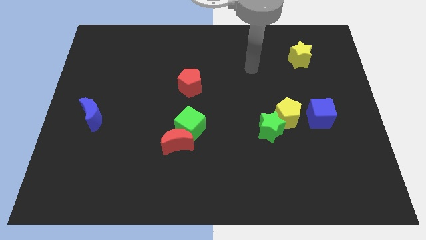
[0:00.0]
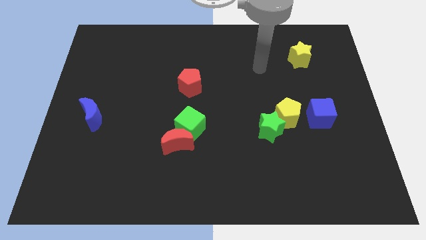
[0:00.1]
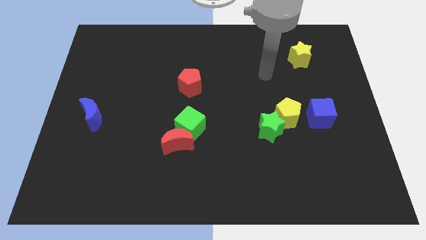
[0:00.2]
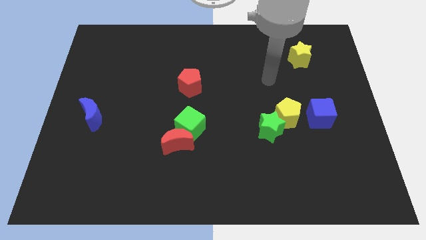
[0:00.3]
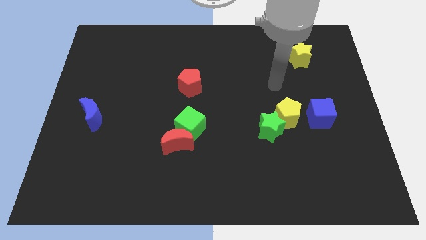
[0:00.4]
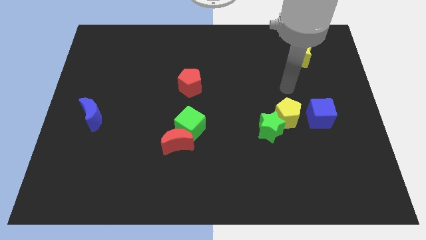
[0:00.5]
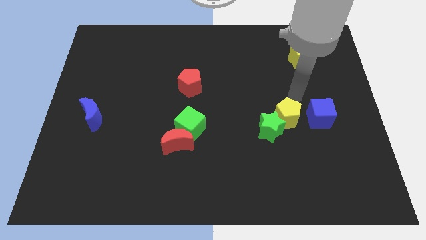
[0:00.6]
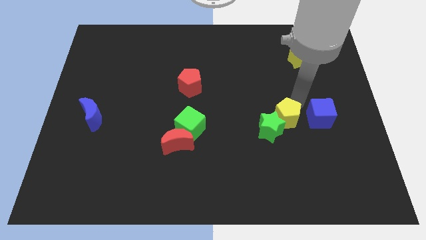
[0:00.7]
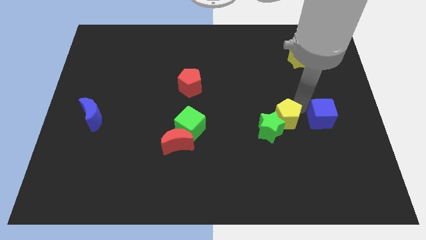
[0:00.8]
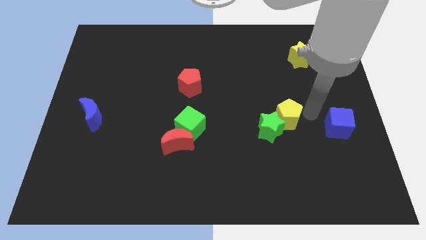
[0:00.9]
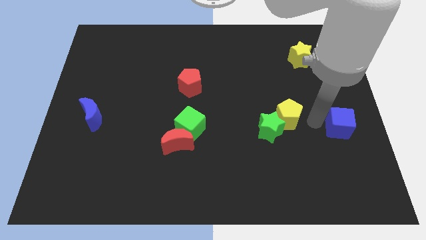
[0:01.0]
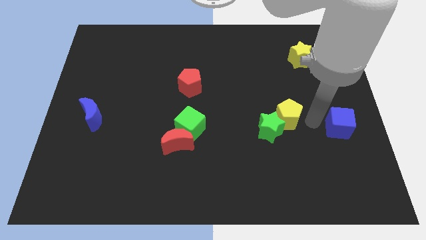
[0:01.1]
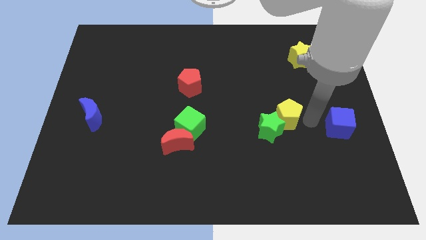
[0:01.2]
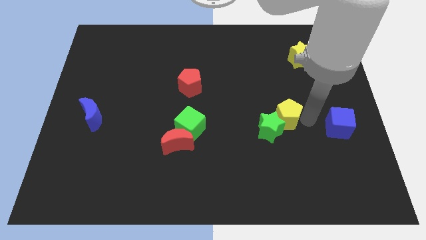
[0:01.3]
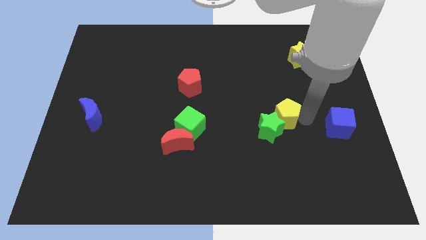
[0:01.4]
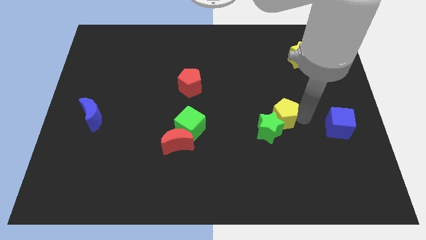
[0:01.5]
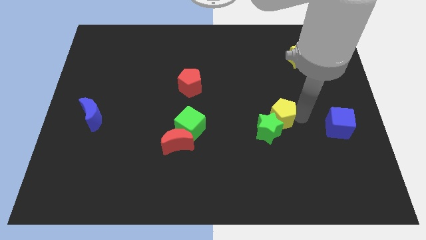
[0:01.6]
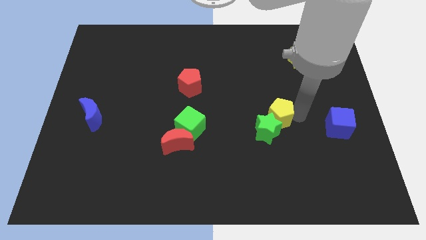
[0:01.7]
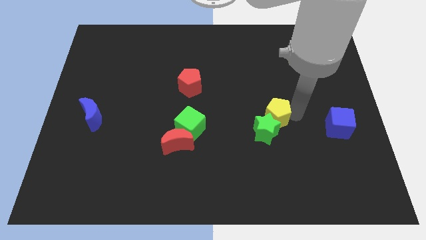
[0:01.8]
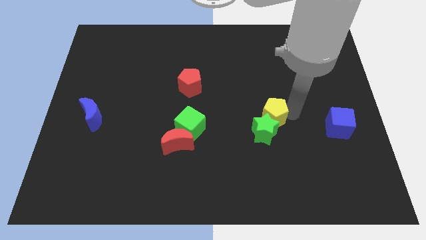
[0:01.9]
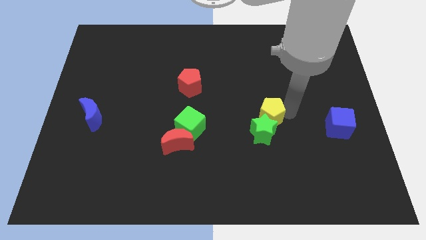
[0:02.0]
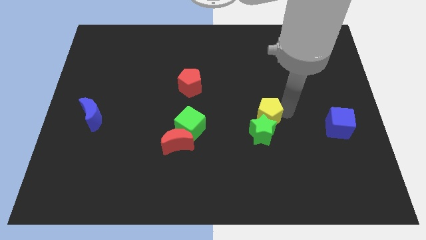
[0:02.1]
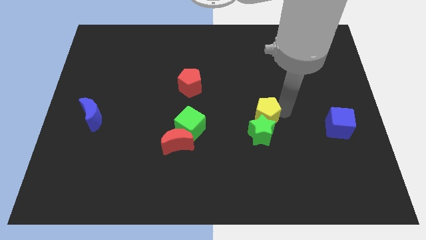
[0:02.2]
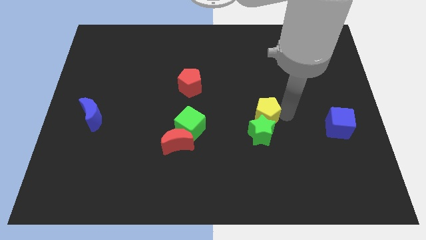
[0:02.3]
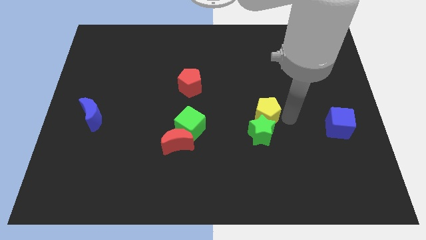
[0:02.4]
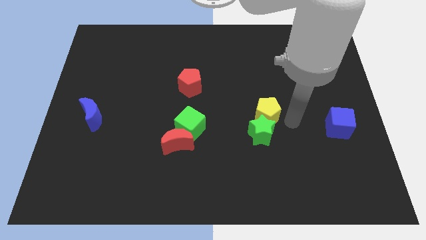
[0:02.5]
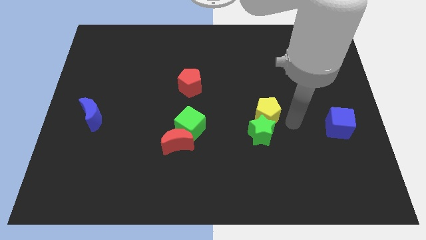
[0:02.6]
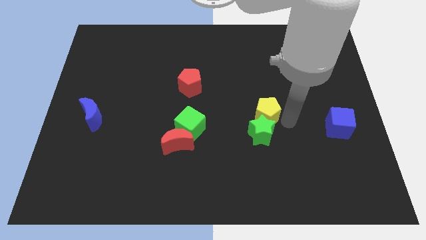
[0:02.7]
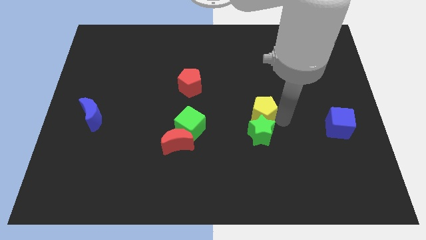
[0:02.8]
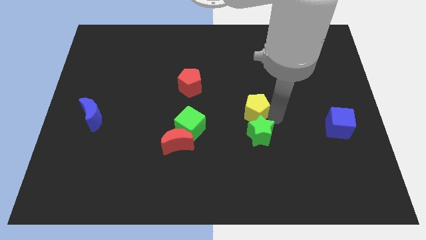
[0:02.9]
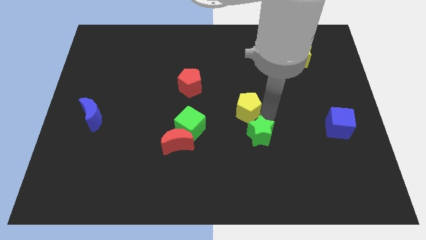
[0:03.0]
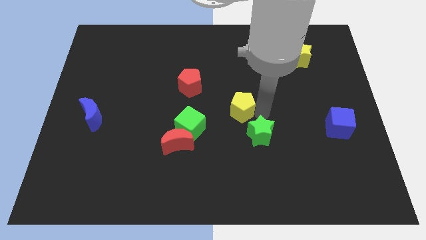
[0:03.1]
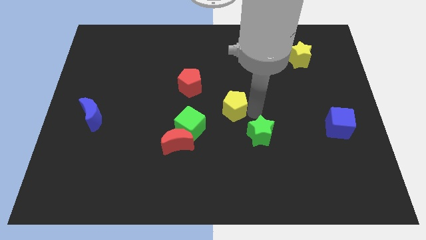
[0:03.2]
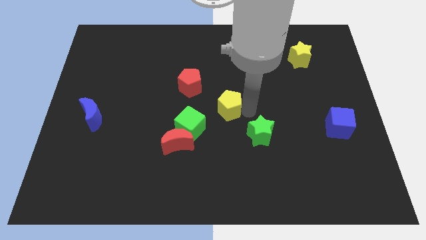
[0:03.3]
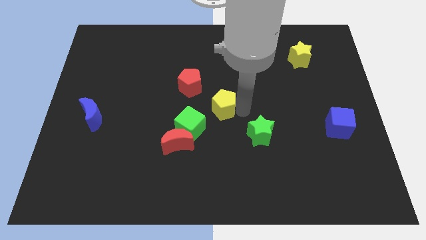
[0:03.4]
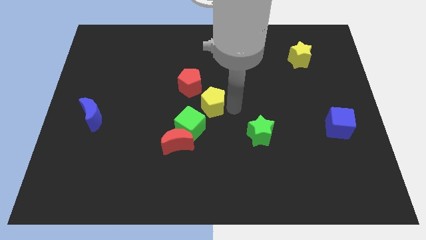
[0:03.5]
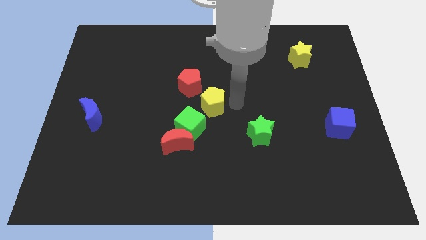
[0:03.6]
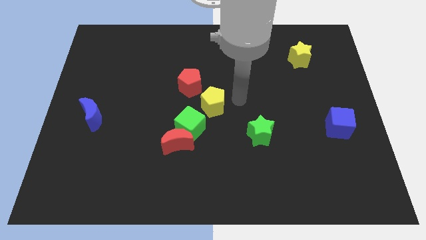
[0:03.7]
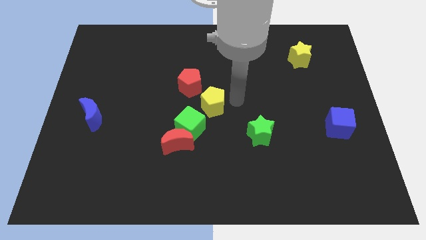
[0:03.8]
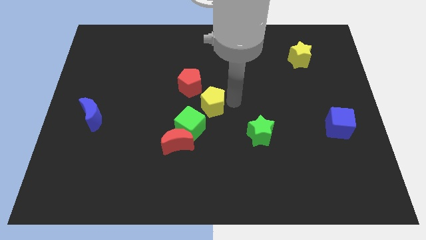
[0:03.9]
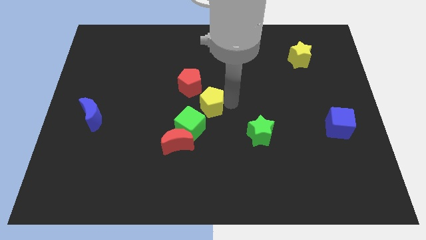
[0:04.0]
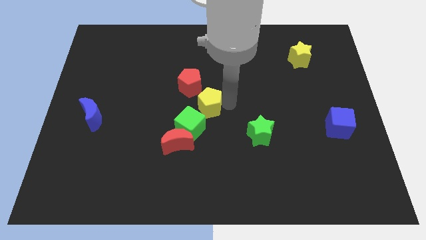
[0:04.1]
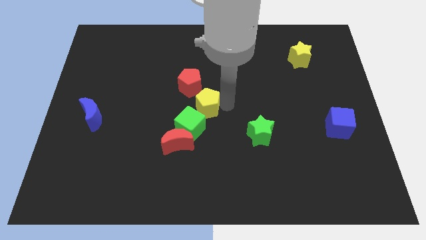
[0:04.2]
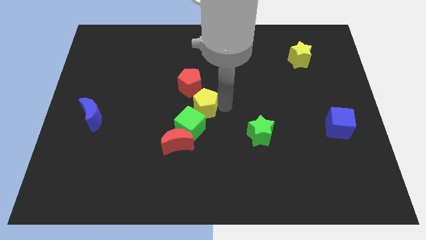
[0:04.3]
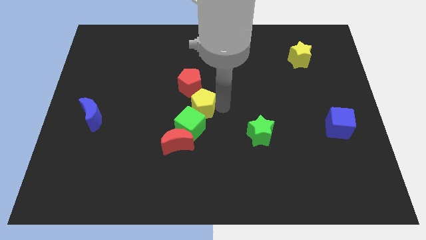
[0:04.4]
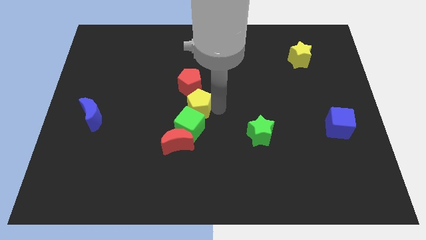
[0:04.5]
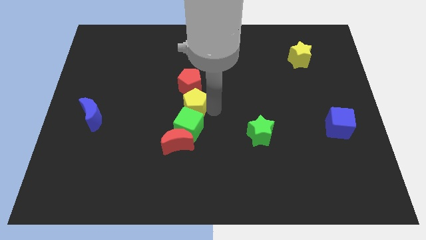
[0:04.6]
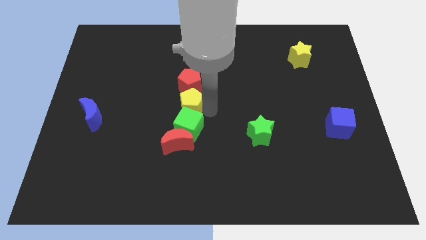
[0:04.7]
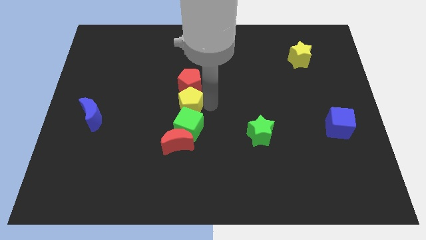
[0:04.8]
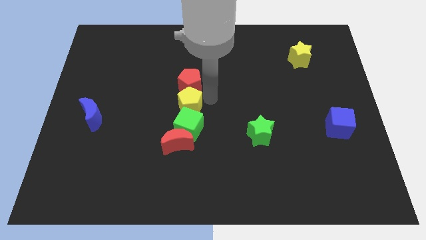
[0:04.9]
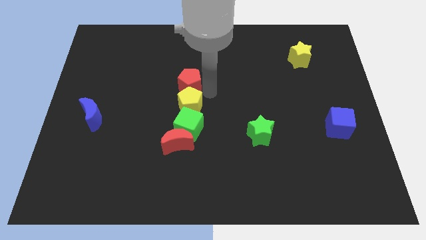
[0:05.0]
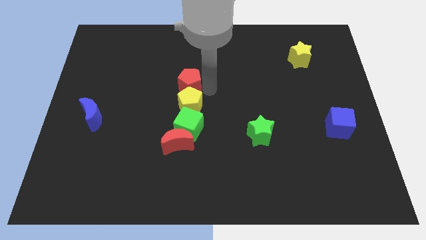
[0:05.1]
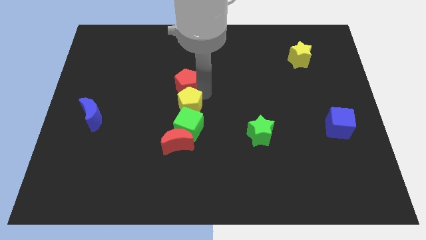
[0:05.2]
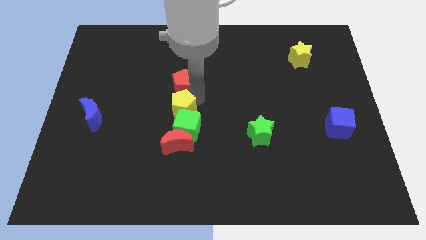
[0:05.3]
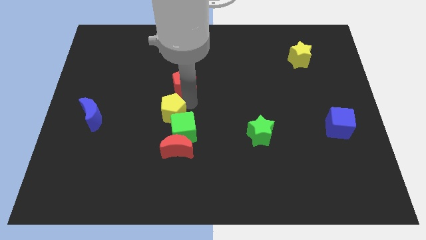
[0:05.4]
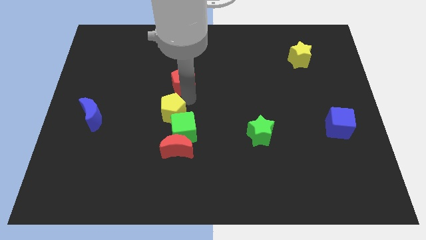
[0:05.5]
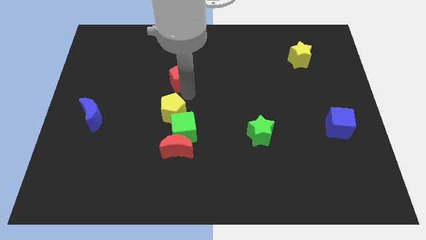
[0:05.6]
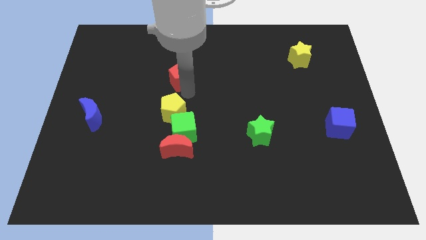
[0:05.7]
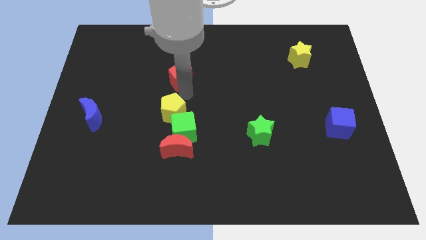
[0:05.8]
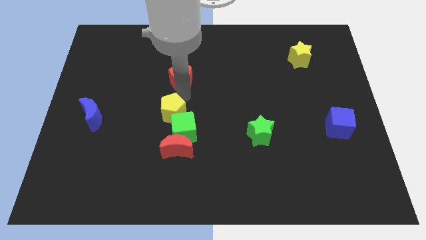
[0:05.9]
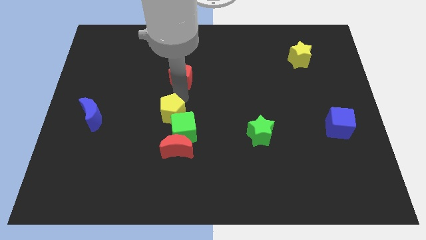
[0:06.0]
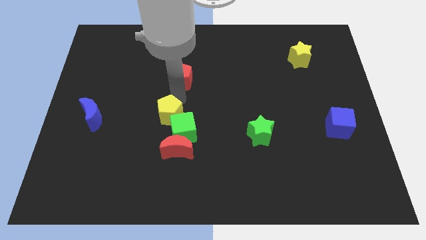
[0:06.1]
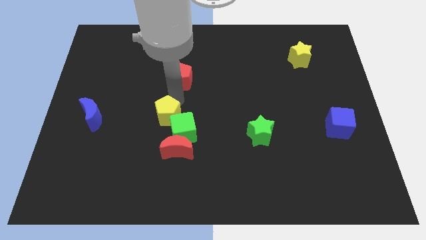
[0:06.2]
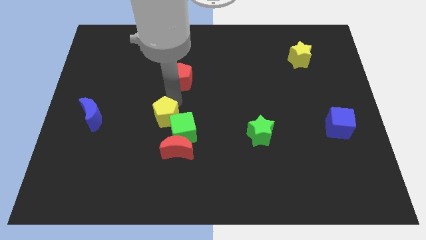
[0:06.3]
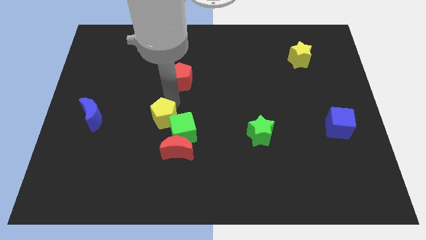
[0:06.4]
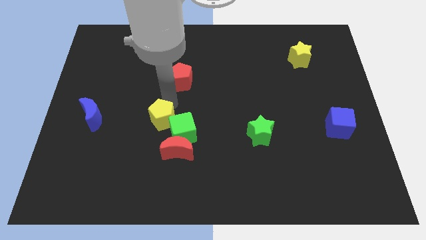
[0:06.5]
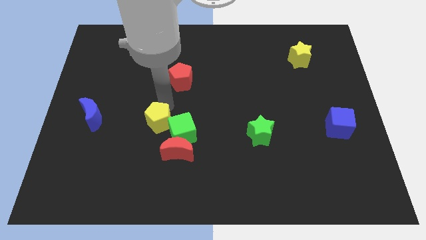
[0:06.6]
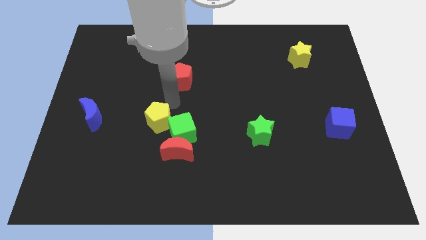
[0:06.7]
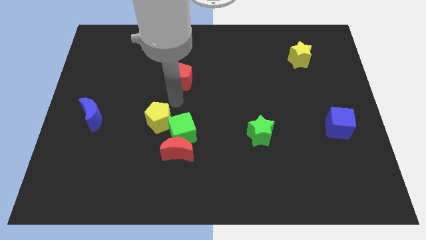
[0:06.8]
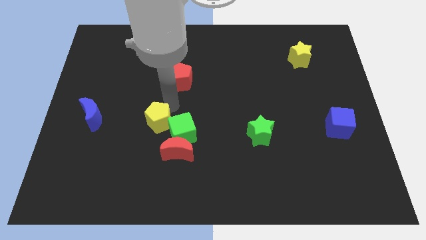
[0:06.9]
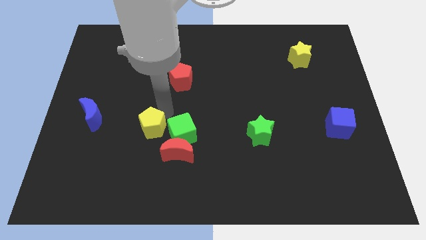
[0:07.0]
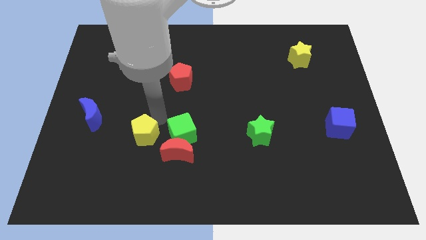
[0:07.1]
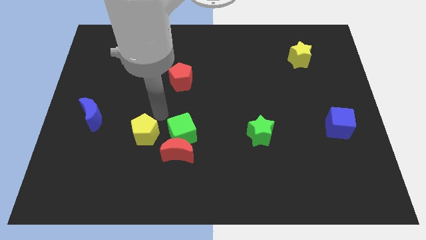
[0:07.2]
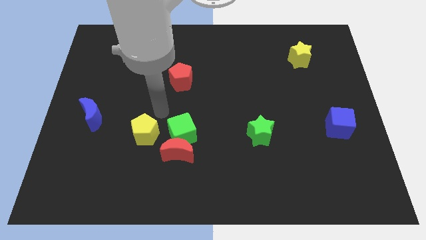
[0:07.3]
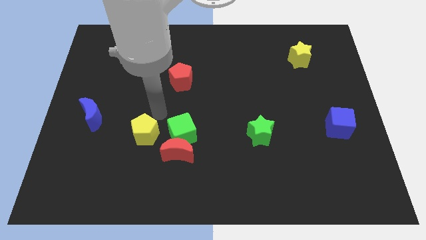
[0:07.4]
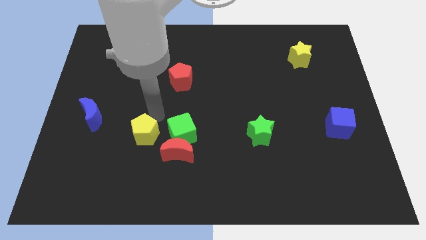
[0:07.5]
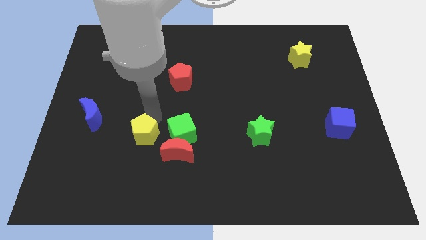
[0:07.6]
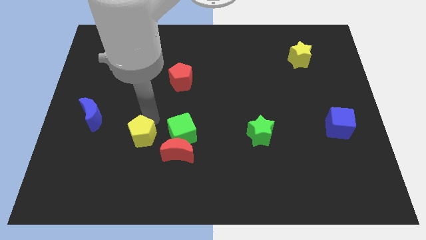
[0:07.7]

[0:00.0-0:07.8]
push the yellow pentagon to the left side of the red moon
